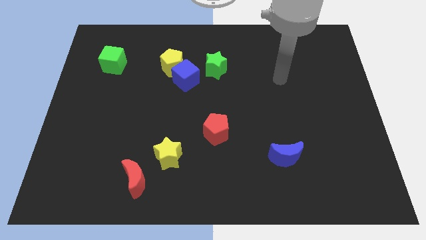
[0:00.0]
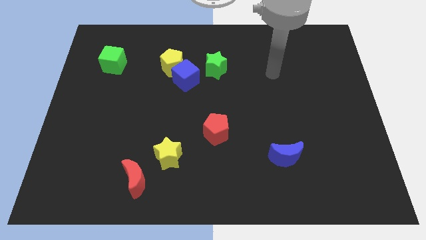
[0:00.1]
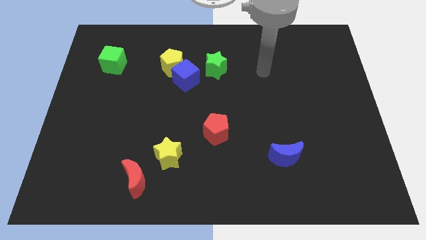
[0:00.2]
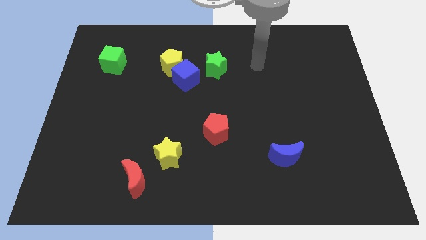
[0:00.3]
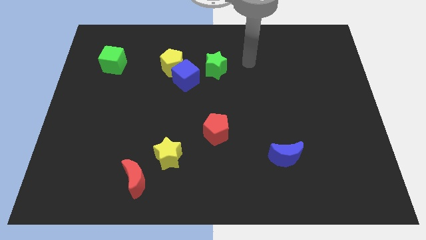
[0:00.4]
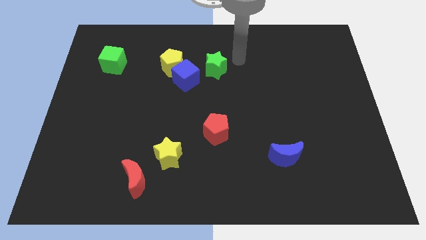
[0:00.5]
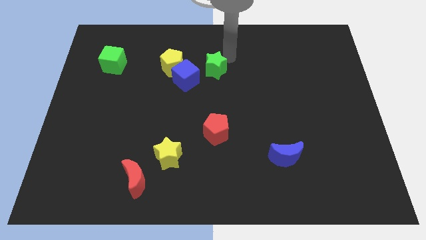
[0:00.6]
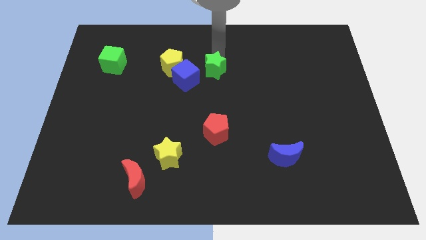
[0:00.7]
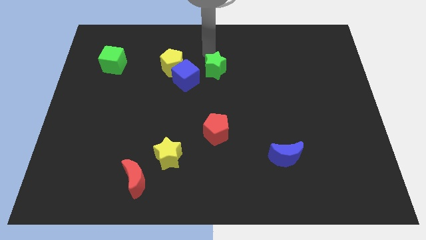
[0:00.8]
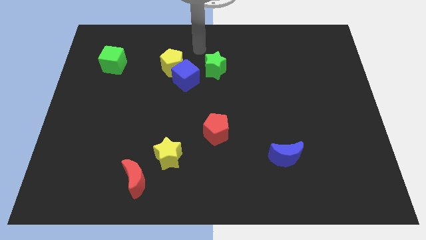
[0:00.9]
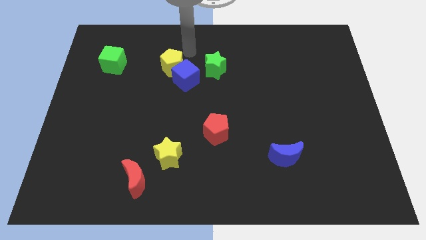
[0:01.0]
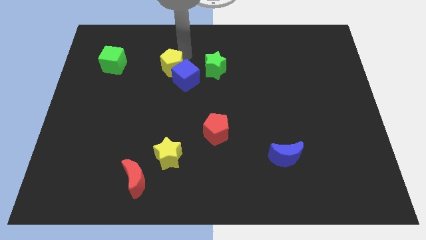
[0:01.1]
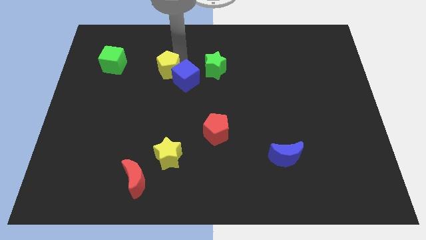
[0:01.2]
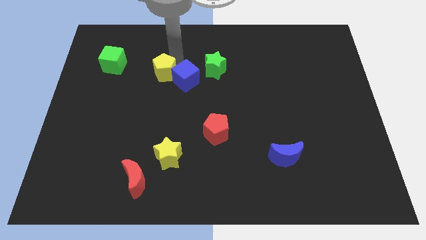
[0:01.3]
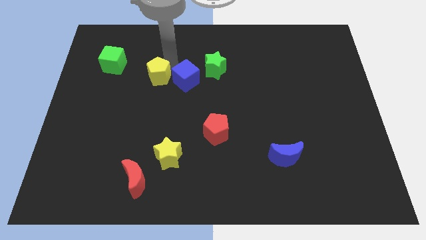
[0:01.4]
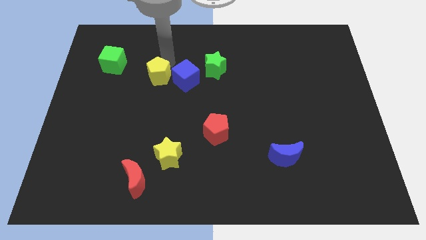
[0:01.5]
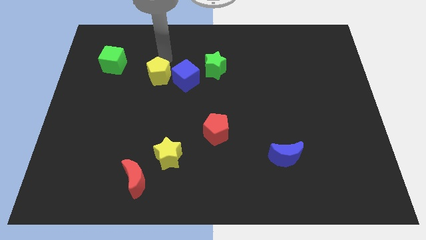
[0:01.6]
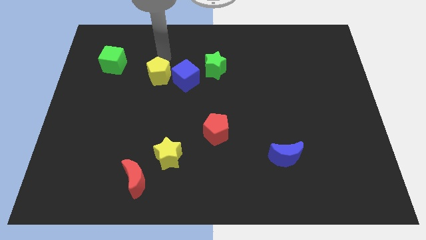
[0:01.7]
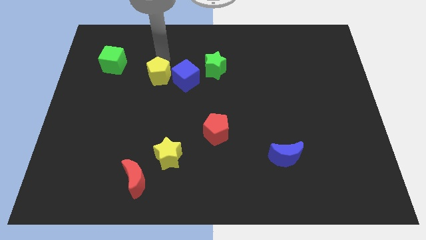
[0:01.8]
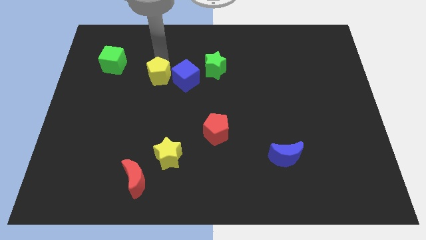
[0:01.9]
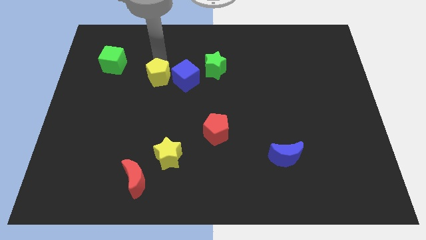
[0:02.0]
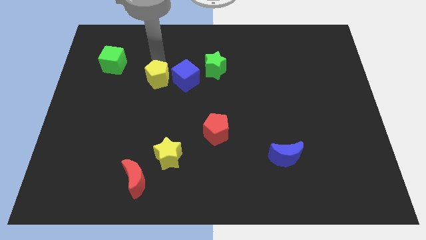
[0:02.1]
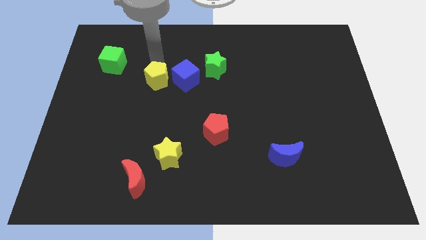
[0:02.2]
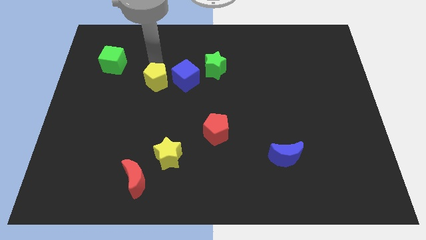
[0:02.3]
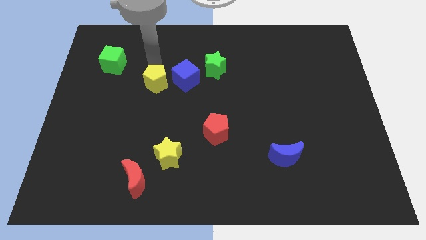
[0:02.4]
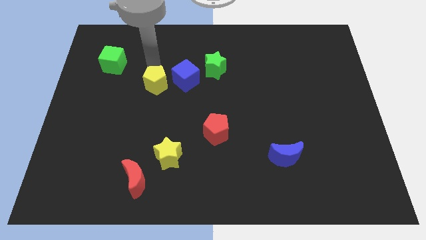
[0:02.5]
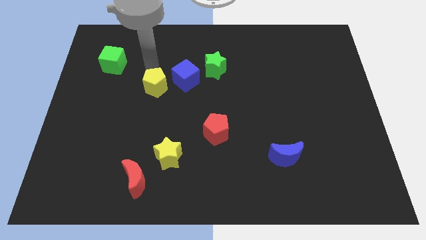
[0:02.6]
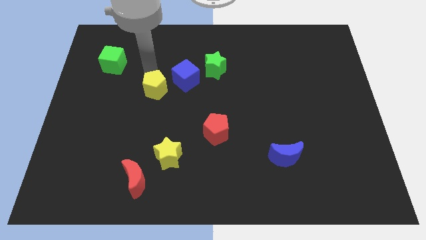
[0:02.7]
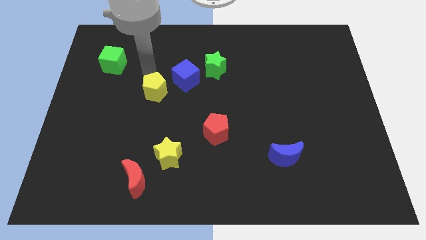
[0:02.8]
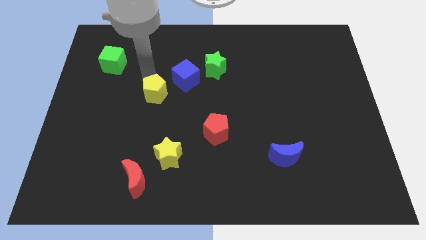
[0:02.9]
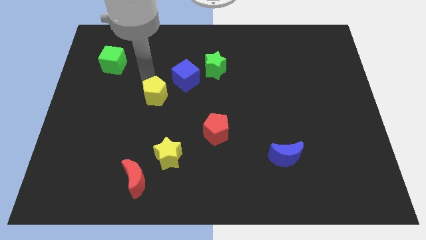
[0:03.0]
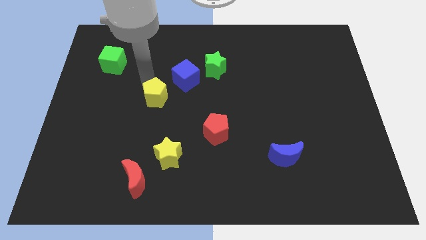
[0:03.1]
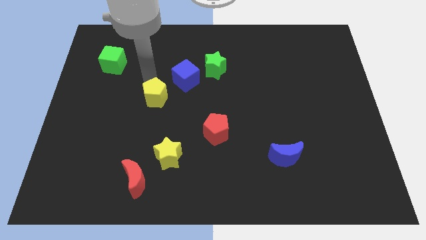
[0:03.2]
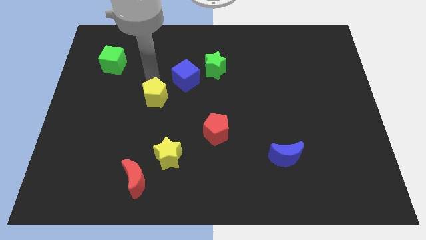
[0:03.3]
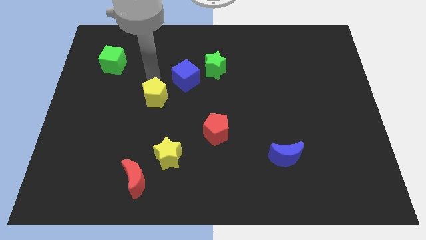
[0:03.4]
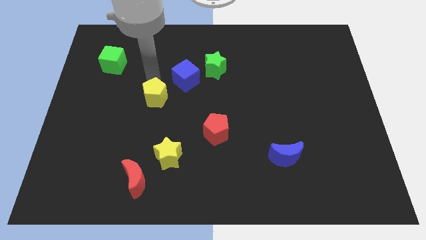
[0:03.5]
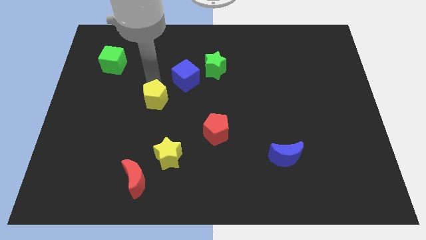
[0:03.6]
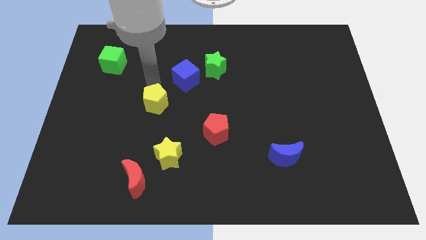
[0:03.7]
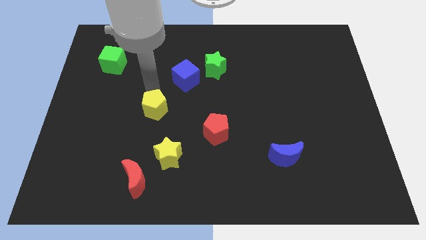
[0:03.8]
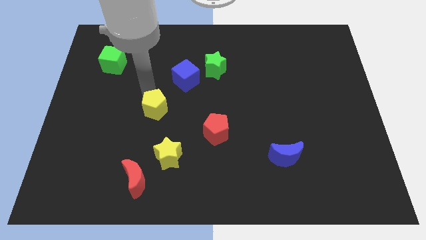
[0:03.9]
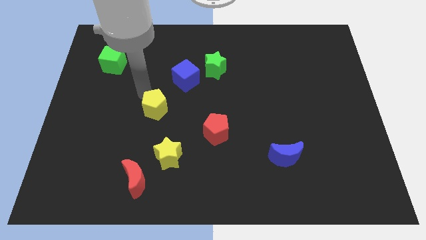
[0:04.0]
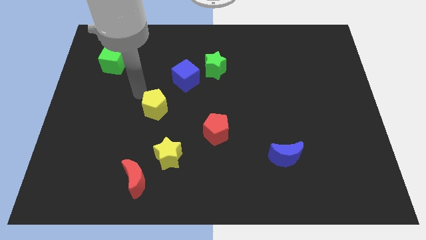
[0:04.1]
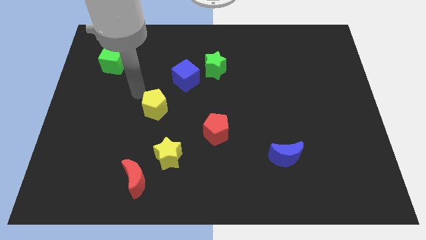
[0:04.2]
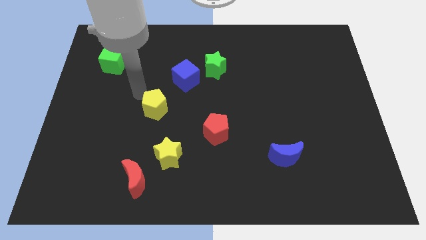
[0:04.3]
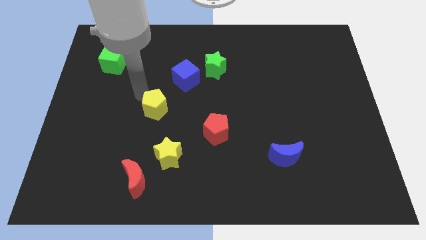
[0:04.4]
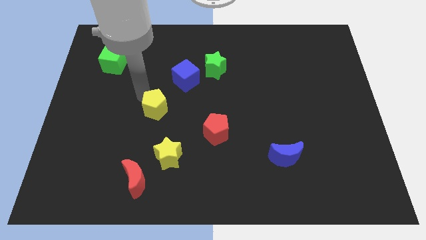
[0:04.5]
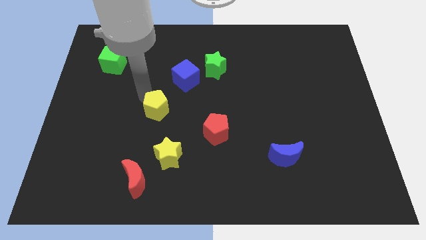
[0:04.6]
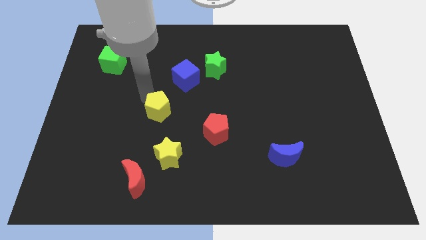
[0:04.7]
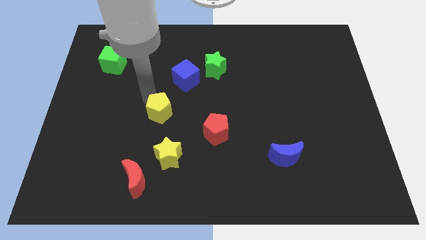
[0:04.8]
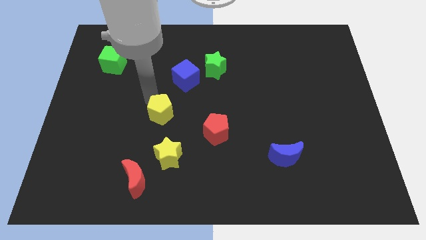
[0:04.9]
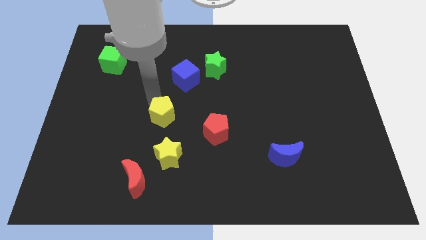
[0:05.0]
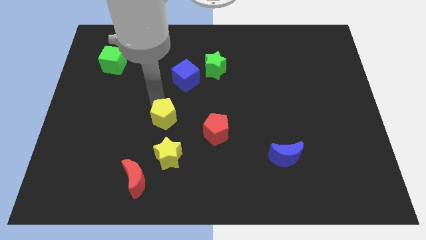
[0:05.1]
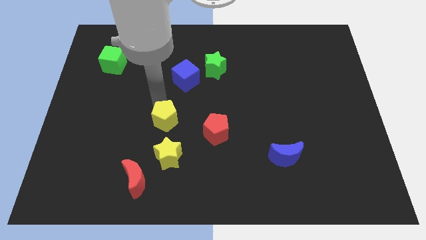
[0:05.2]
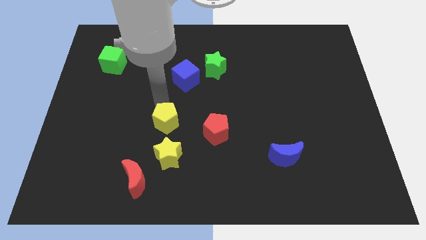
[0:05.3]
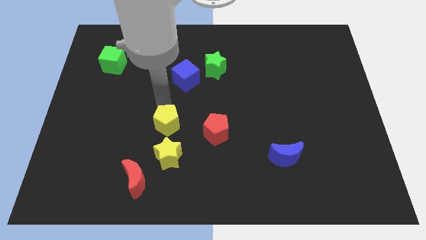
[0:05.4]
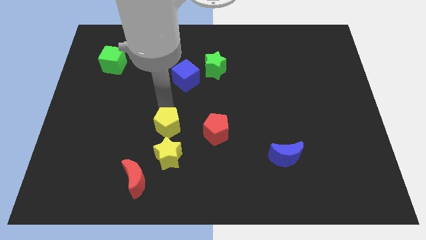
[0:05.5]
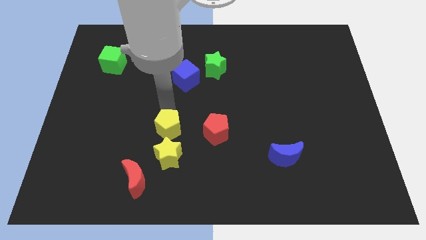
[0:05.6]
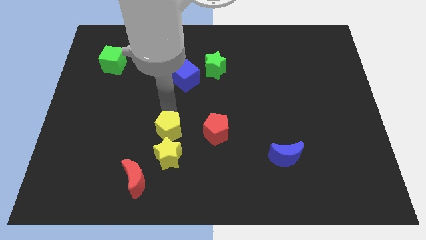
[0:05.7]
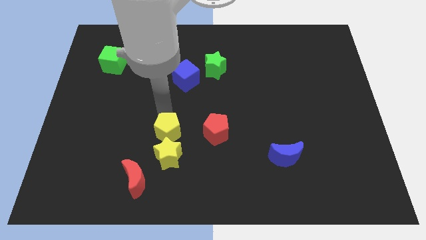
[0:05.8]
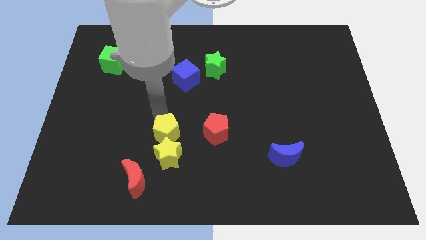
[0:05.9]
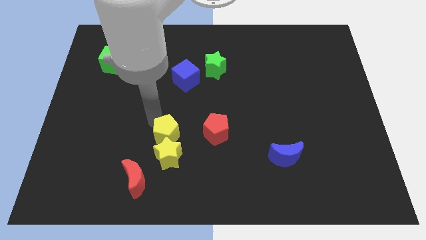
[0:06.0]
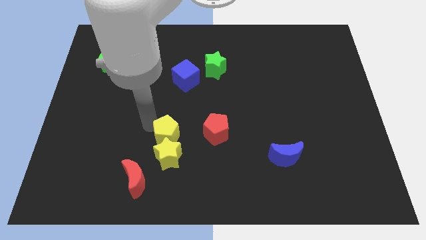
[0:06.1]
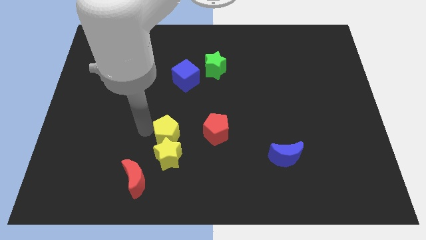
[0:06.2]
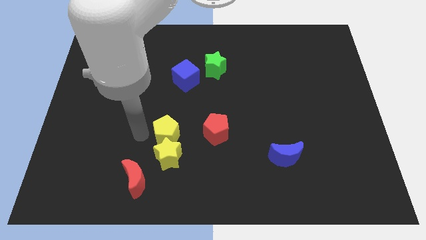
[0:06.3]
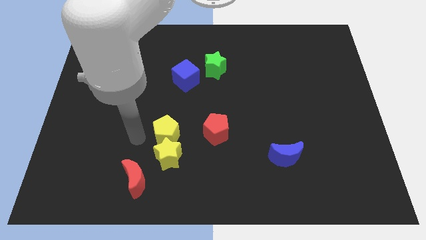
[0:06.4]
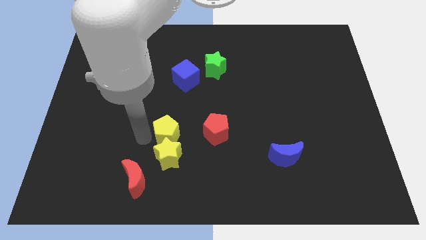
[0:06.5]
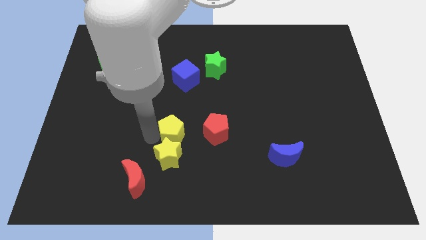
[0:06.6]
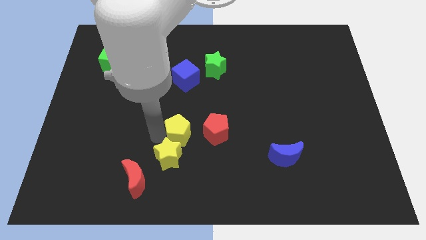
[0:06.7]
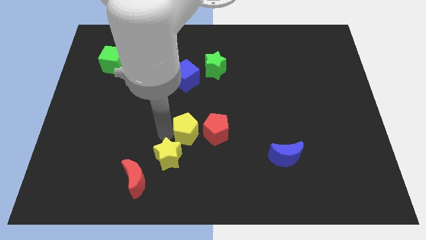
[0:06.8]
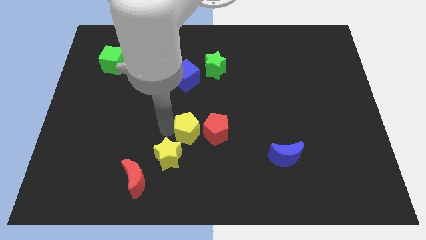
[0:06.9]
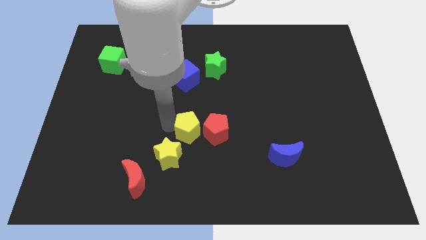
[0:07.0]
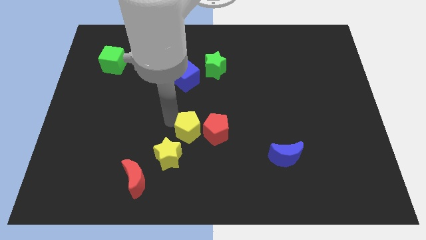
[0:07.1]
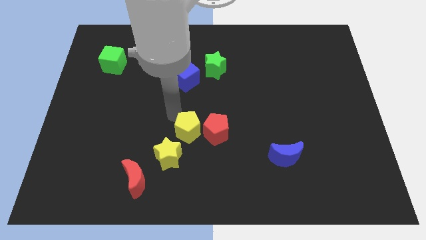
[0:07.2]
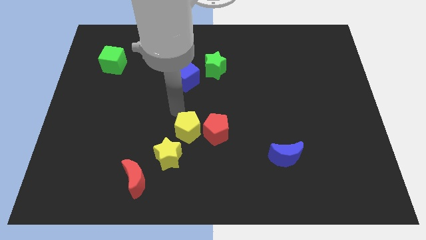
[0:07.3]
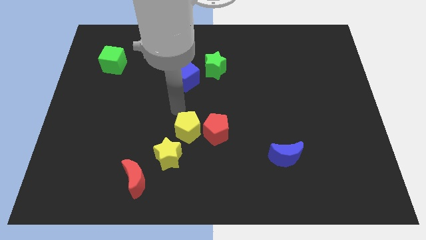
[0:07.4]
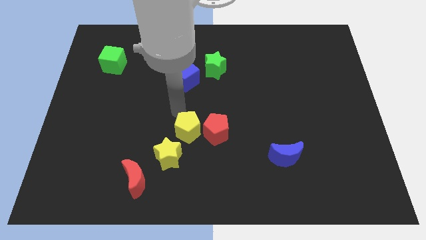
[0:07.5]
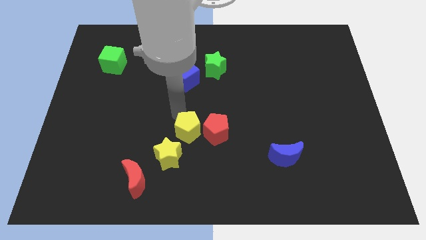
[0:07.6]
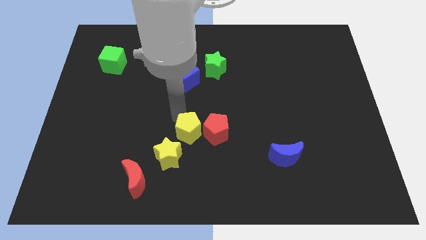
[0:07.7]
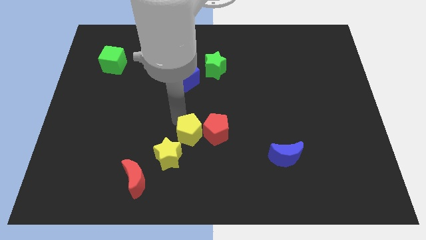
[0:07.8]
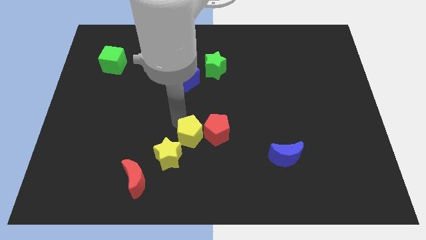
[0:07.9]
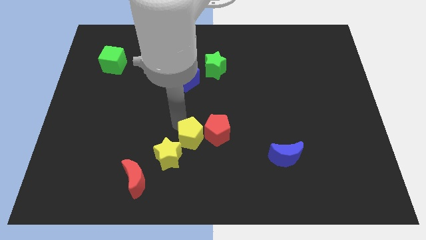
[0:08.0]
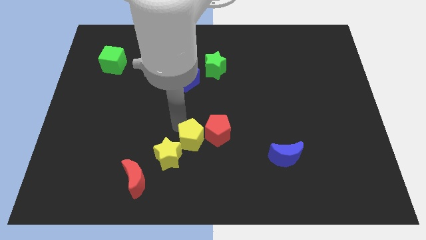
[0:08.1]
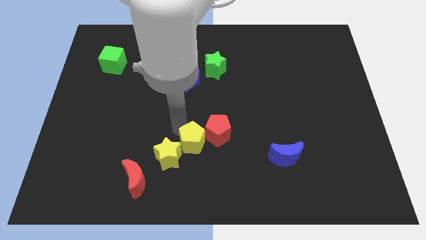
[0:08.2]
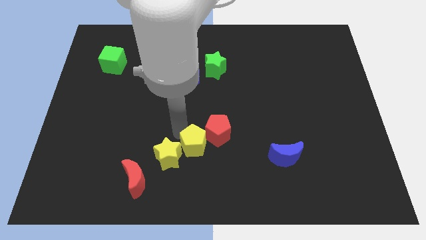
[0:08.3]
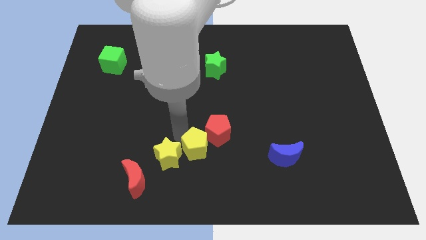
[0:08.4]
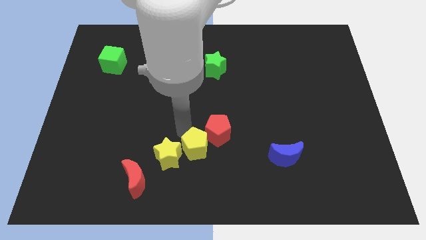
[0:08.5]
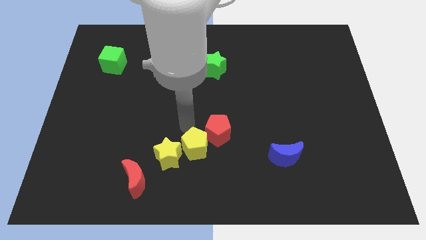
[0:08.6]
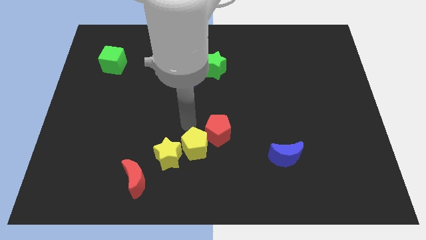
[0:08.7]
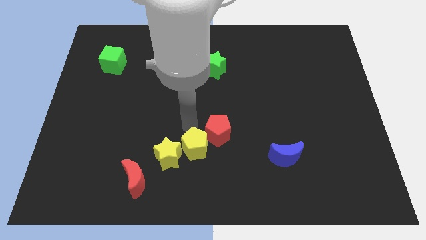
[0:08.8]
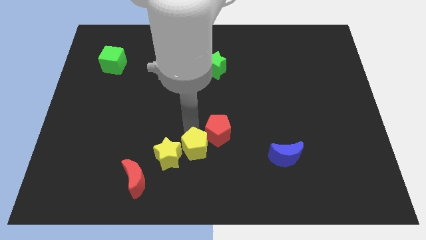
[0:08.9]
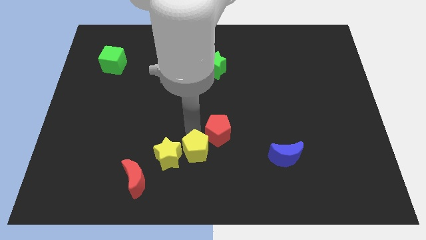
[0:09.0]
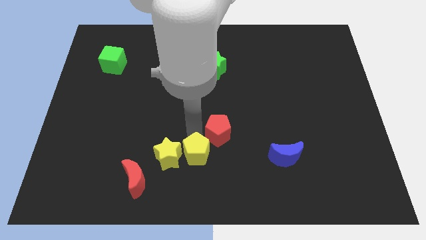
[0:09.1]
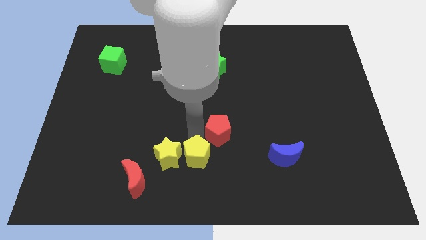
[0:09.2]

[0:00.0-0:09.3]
slide the yellow pentagon to the bottom
